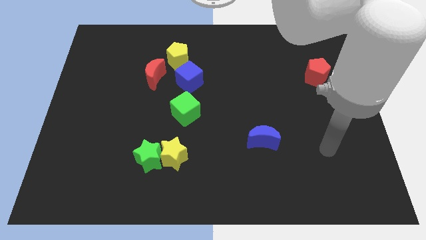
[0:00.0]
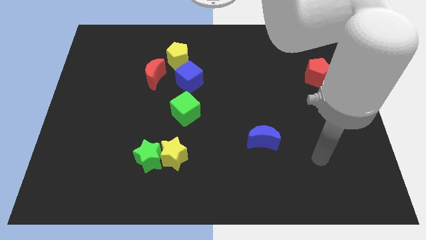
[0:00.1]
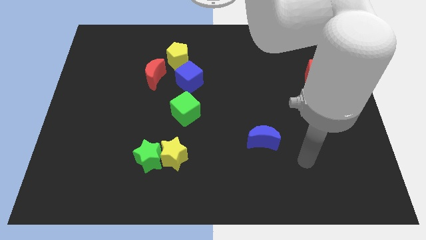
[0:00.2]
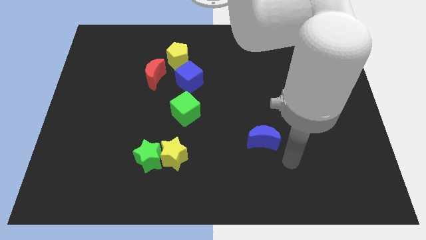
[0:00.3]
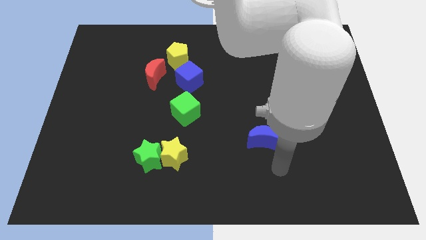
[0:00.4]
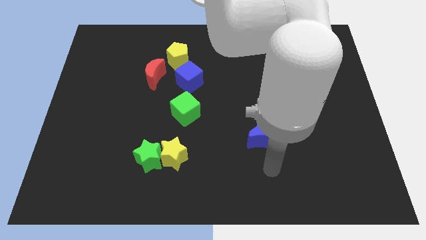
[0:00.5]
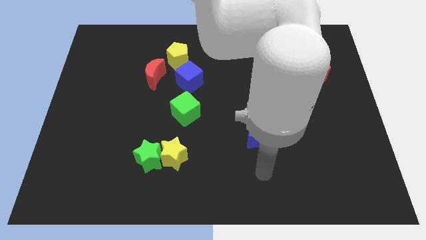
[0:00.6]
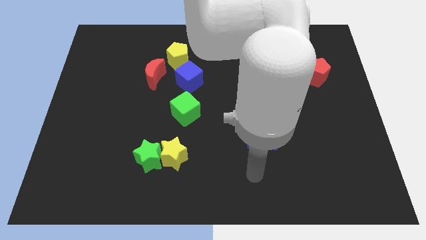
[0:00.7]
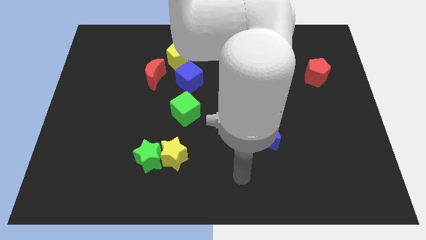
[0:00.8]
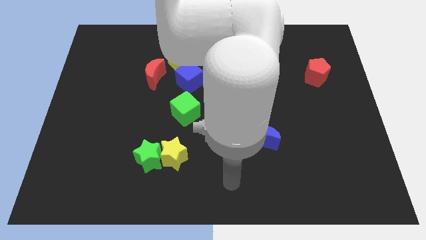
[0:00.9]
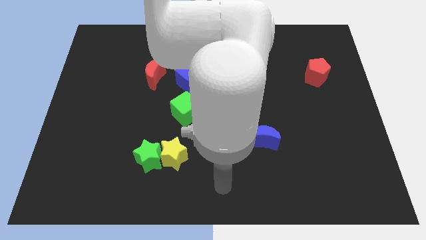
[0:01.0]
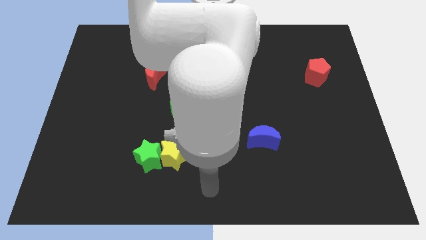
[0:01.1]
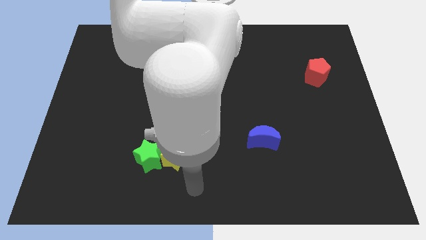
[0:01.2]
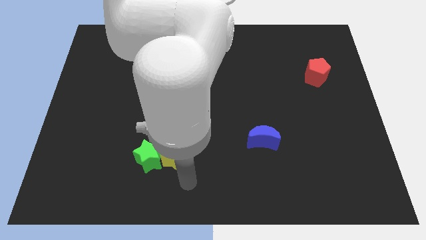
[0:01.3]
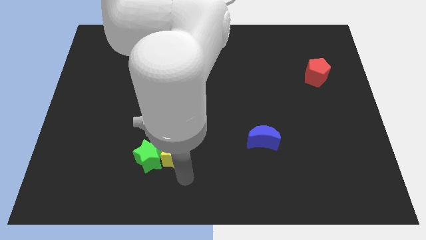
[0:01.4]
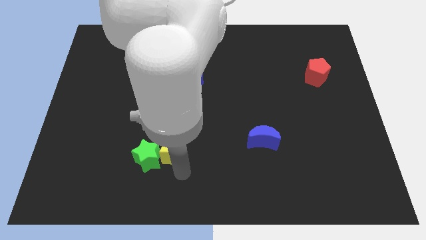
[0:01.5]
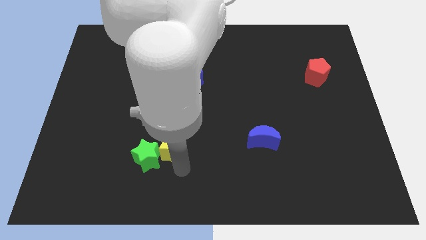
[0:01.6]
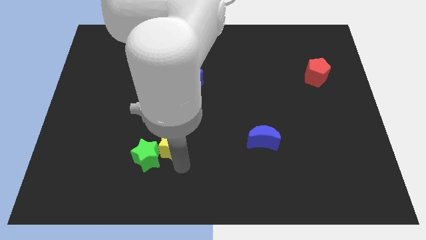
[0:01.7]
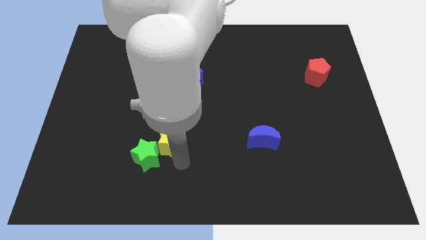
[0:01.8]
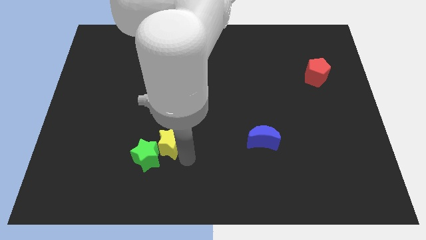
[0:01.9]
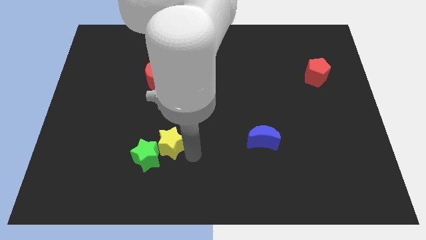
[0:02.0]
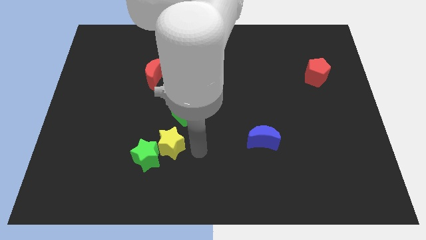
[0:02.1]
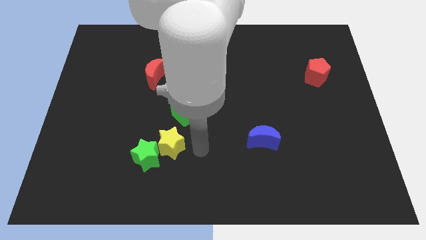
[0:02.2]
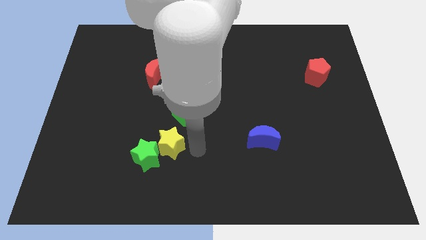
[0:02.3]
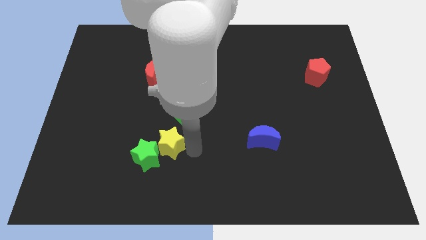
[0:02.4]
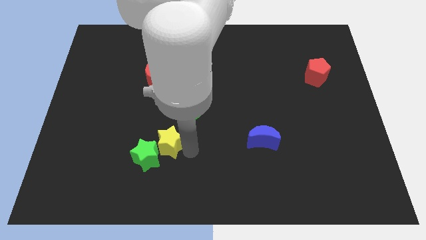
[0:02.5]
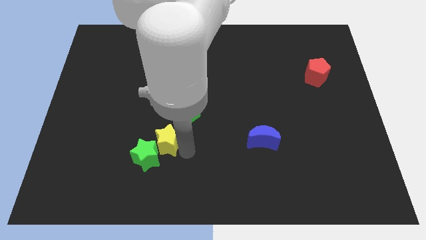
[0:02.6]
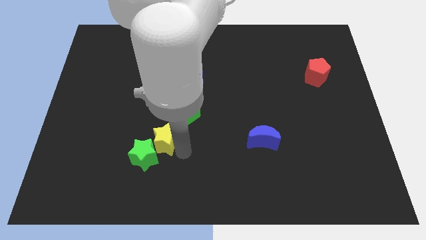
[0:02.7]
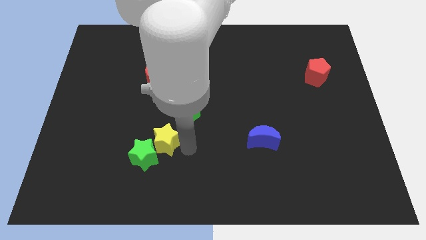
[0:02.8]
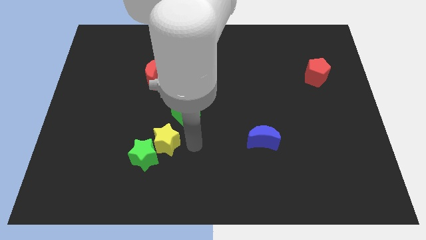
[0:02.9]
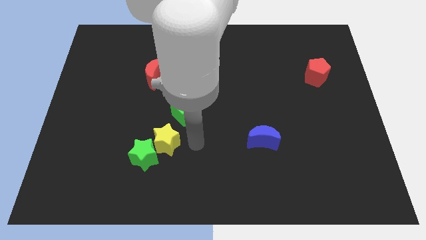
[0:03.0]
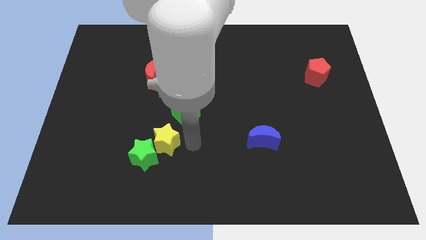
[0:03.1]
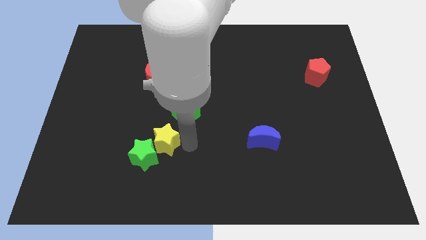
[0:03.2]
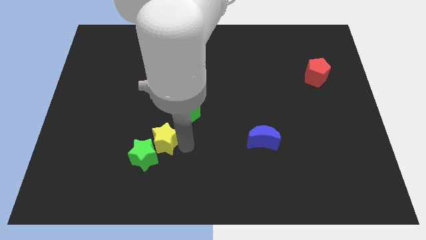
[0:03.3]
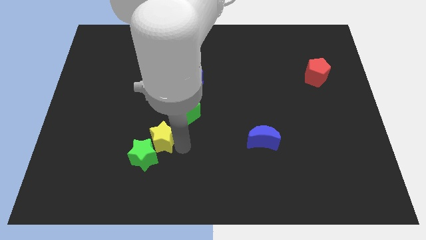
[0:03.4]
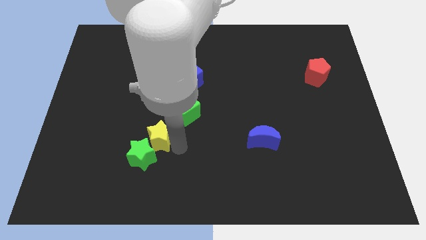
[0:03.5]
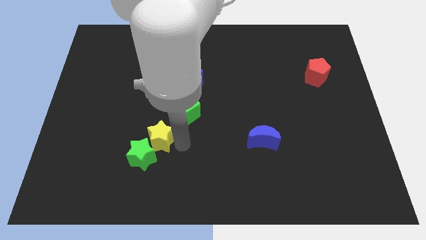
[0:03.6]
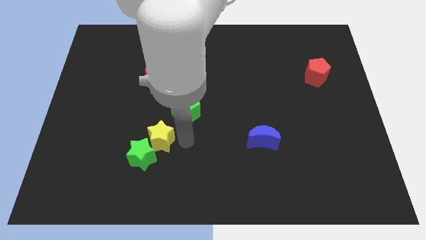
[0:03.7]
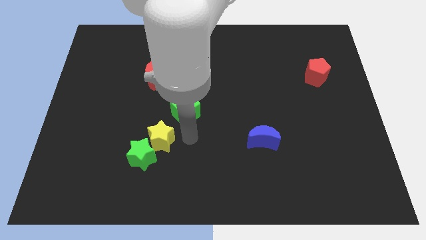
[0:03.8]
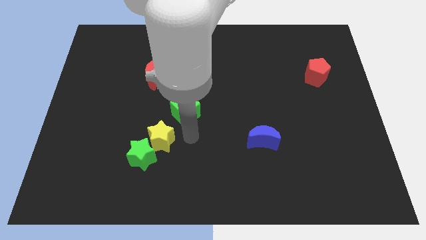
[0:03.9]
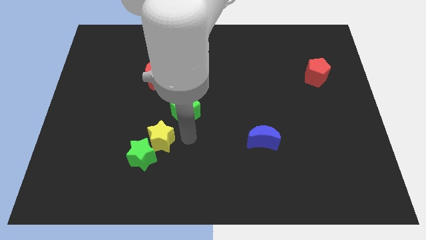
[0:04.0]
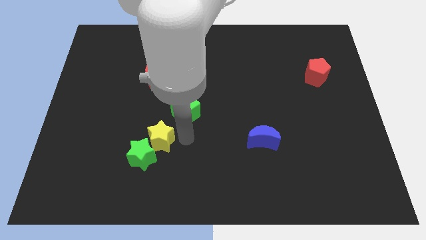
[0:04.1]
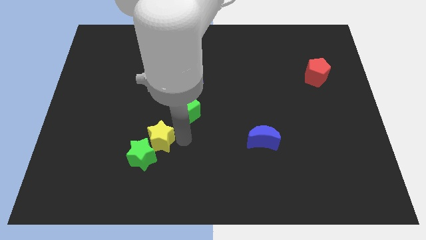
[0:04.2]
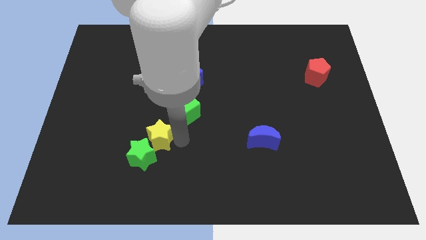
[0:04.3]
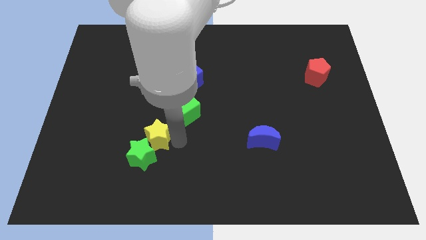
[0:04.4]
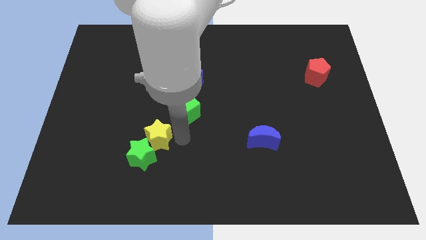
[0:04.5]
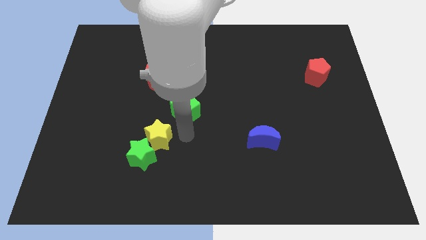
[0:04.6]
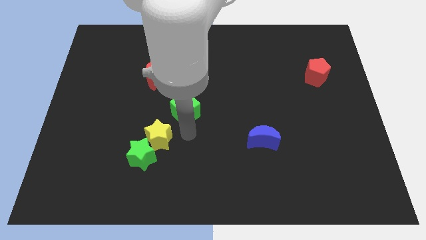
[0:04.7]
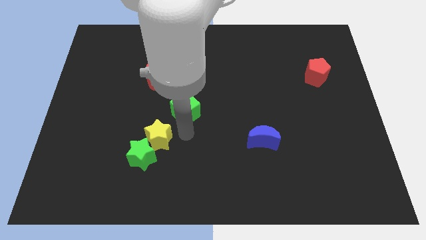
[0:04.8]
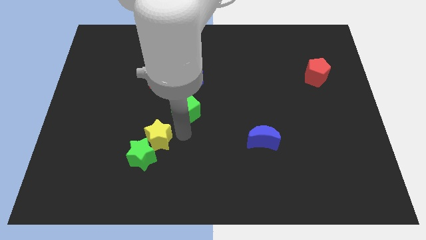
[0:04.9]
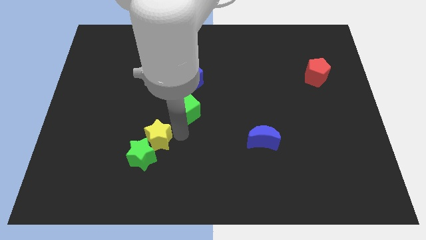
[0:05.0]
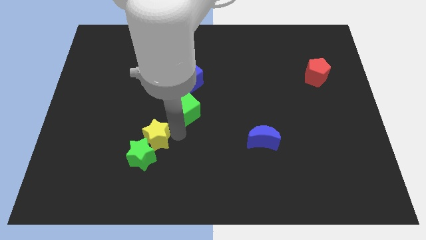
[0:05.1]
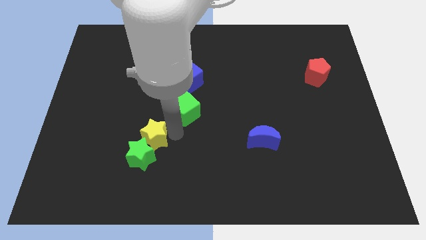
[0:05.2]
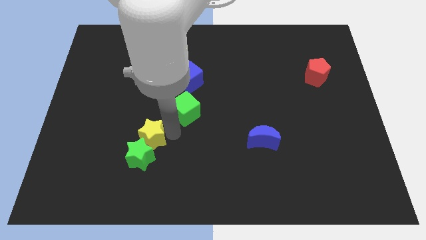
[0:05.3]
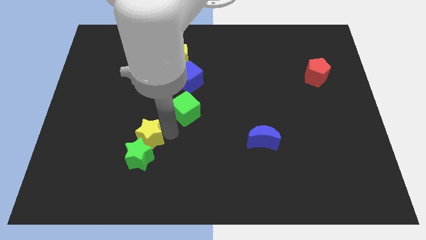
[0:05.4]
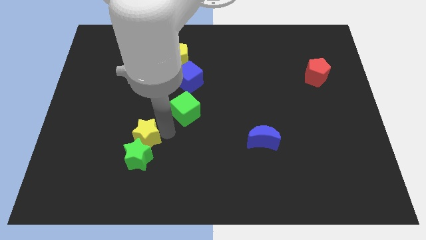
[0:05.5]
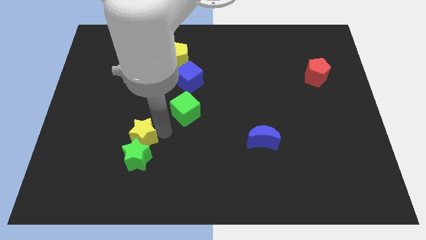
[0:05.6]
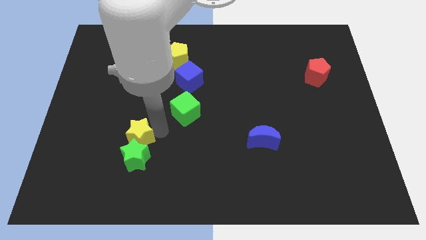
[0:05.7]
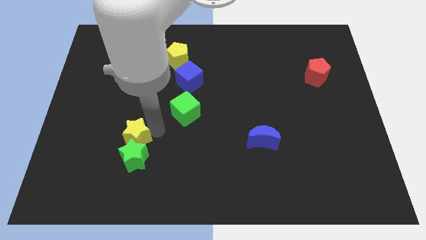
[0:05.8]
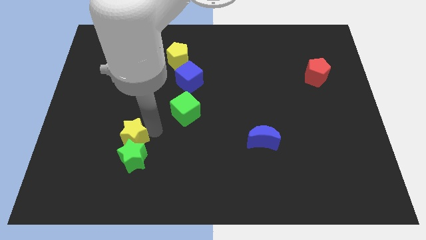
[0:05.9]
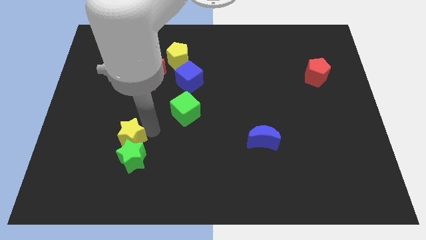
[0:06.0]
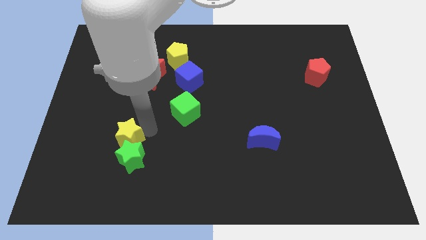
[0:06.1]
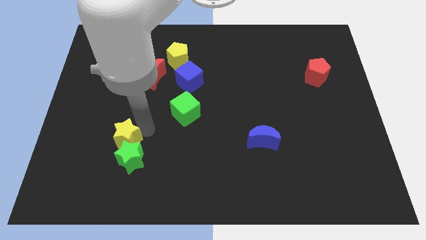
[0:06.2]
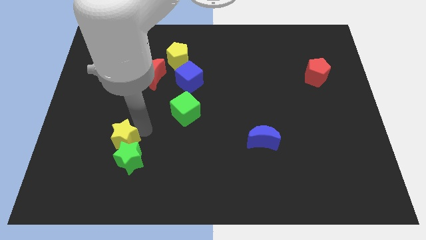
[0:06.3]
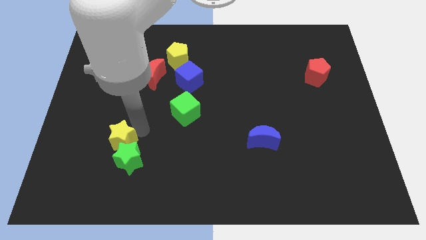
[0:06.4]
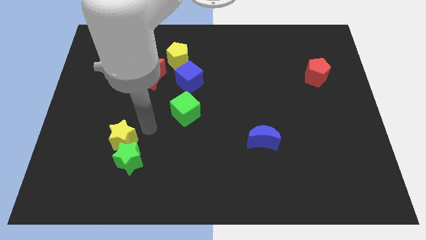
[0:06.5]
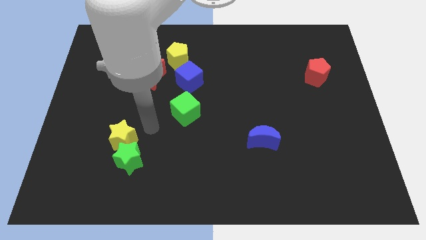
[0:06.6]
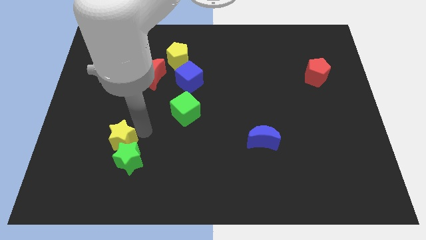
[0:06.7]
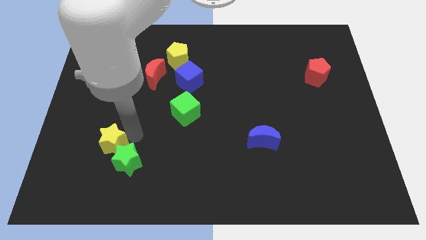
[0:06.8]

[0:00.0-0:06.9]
slide the yellow star just left of the green star

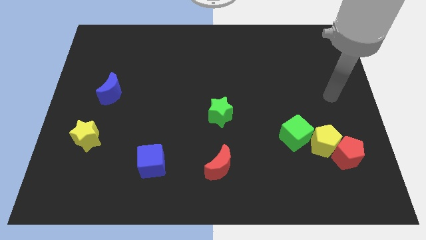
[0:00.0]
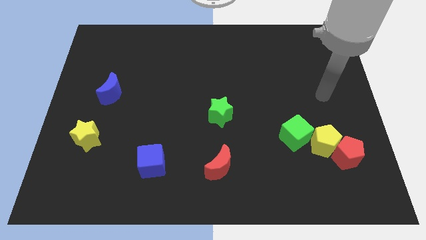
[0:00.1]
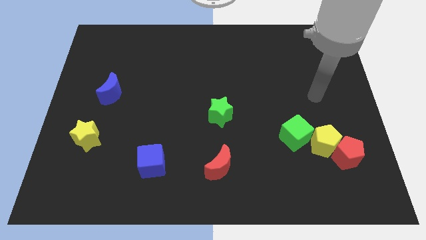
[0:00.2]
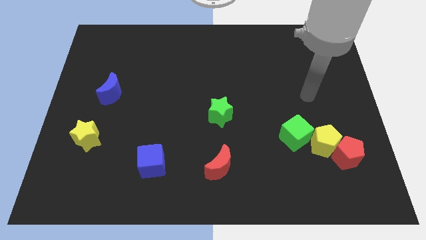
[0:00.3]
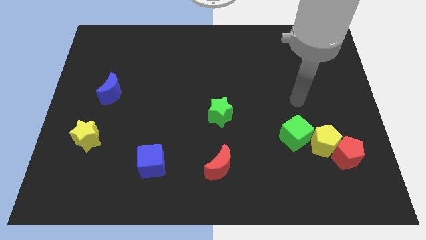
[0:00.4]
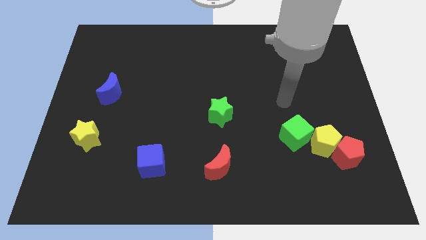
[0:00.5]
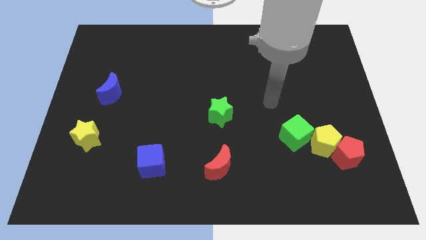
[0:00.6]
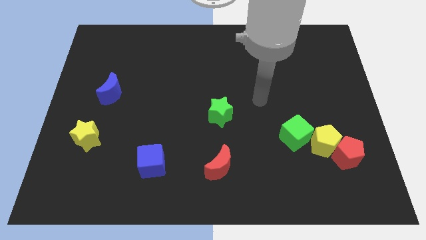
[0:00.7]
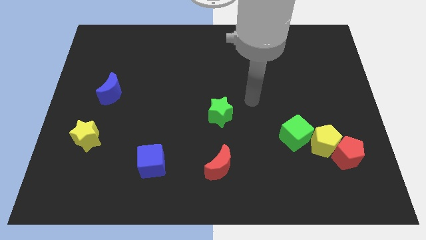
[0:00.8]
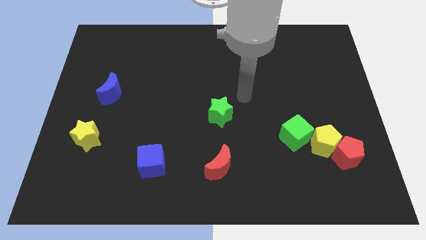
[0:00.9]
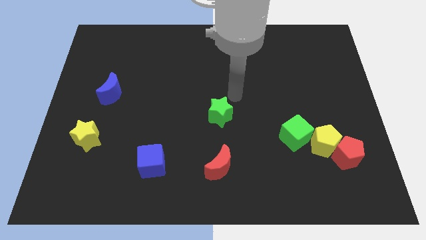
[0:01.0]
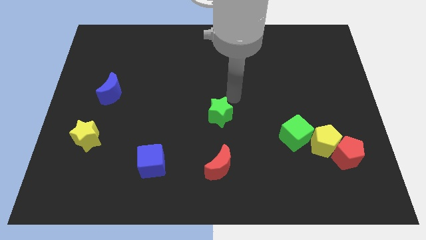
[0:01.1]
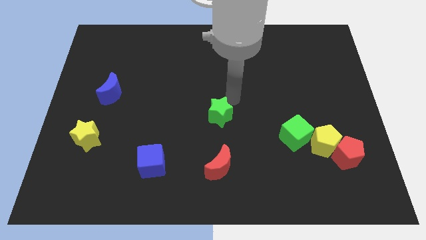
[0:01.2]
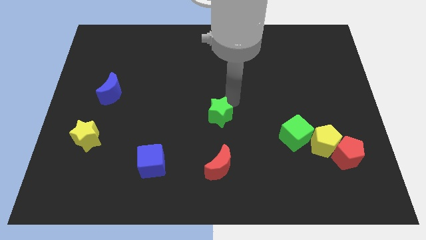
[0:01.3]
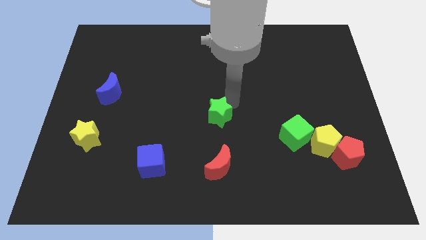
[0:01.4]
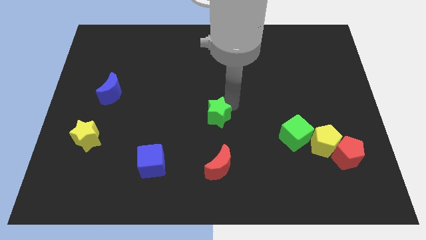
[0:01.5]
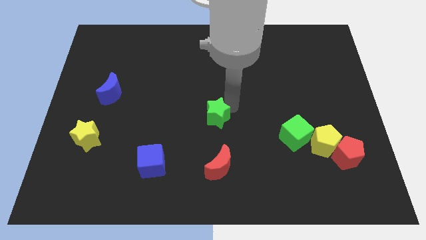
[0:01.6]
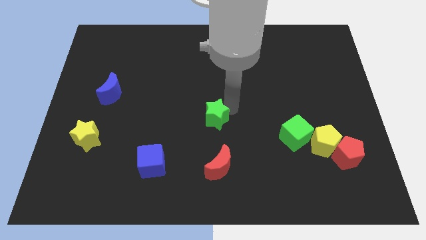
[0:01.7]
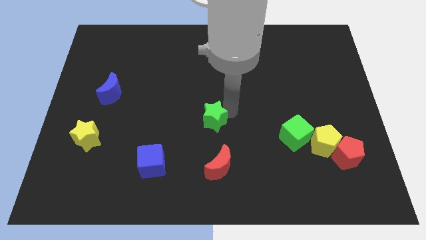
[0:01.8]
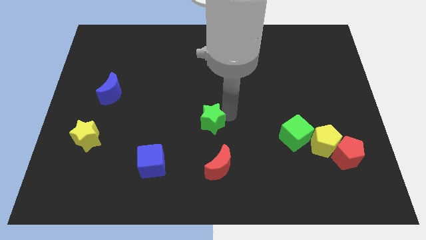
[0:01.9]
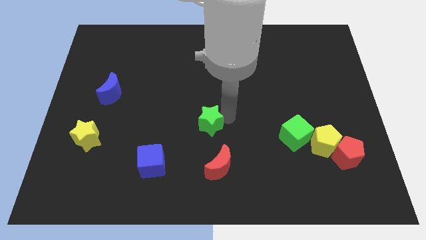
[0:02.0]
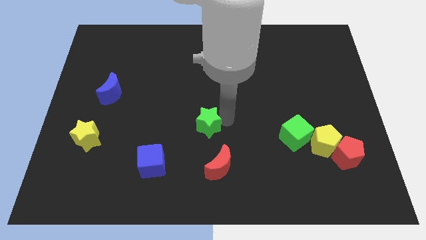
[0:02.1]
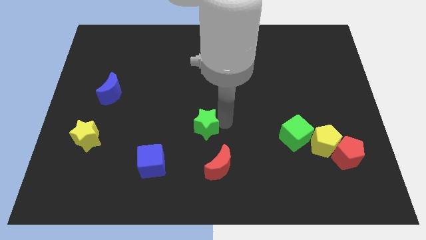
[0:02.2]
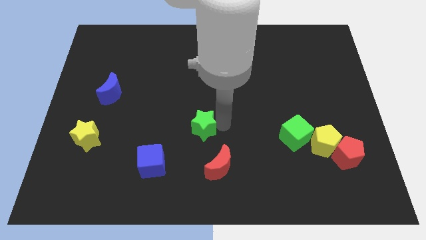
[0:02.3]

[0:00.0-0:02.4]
push the green star to the top left of the red moon
